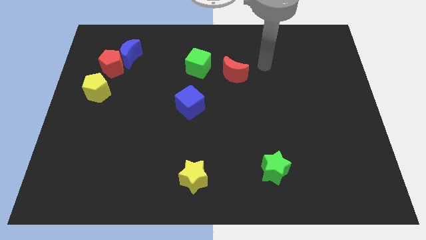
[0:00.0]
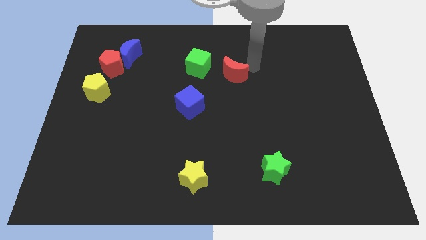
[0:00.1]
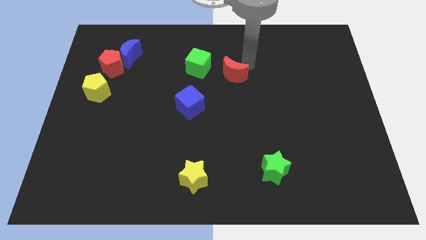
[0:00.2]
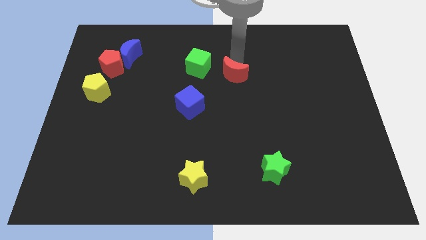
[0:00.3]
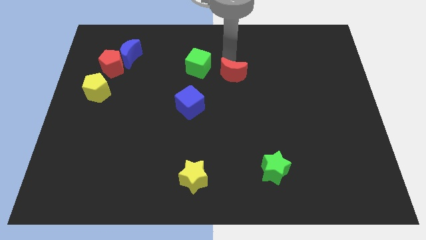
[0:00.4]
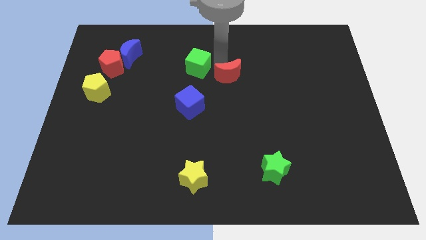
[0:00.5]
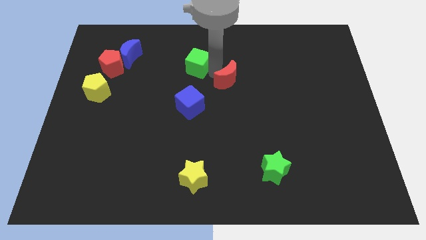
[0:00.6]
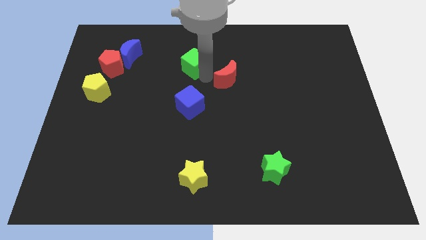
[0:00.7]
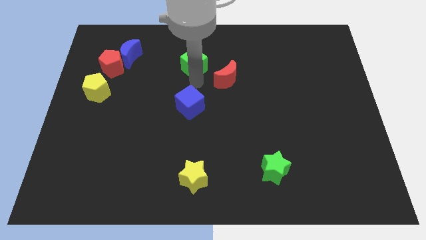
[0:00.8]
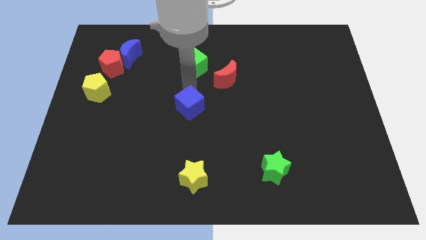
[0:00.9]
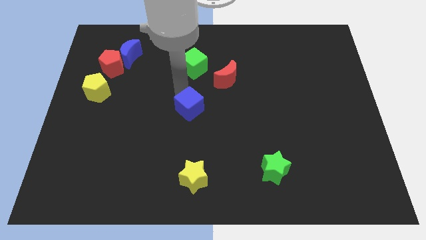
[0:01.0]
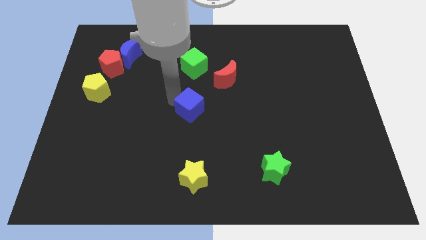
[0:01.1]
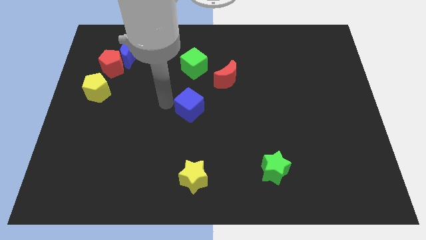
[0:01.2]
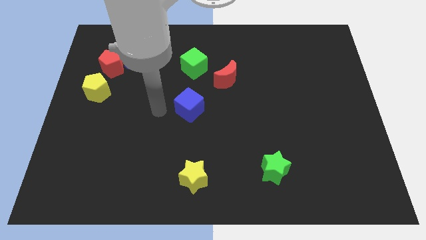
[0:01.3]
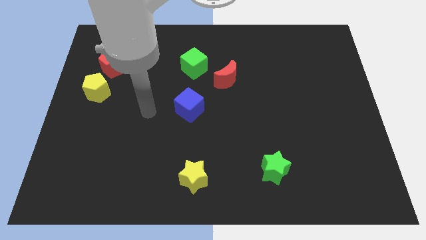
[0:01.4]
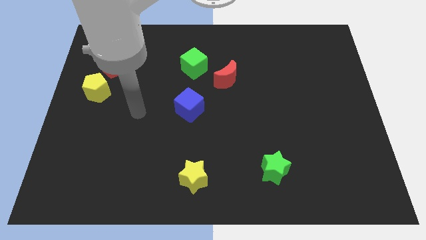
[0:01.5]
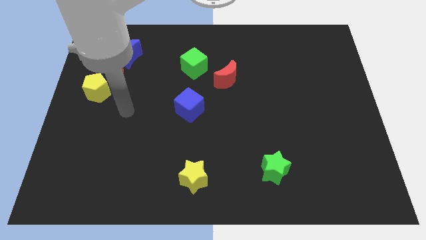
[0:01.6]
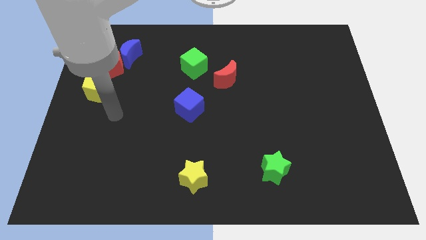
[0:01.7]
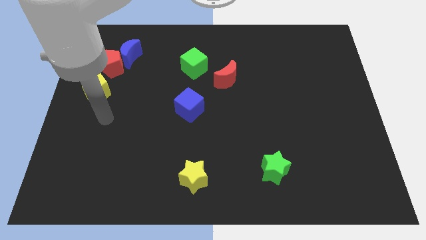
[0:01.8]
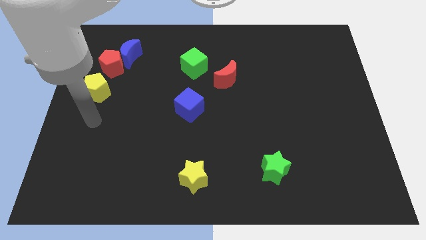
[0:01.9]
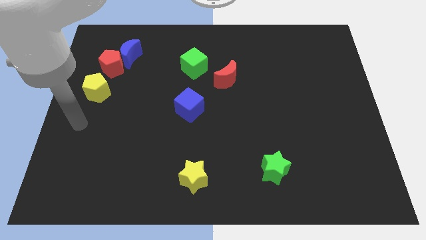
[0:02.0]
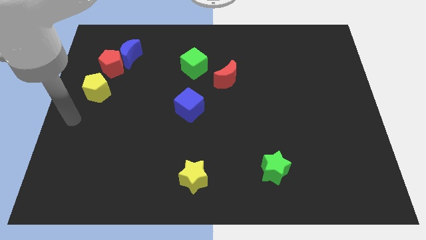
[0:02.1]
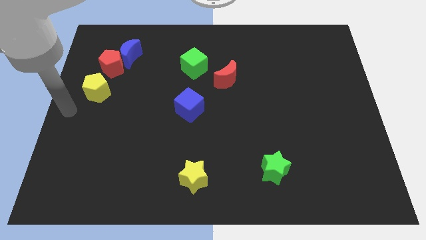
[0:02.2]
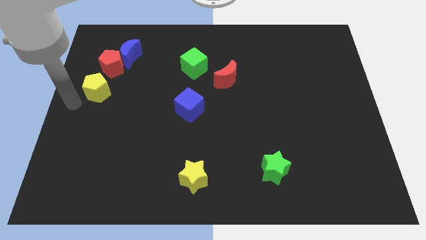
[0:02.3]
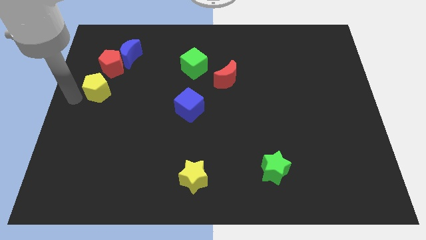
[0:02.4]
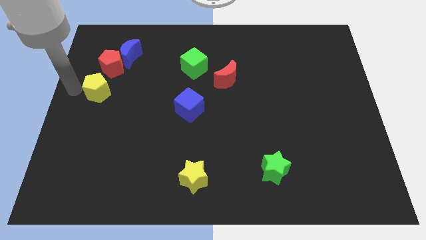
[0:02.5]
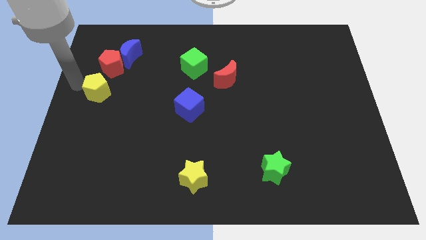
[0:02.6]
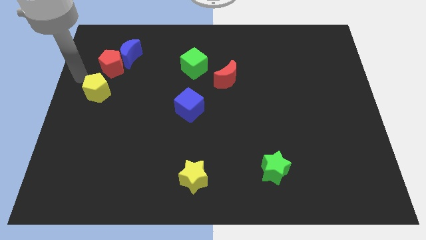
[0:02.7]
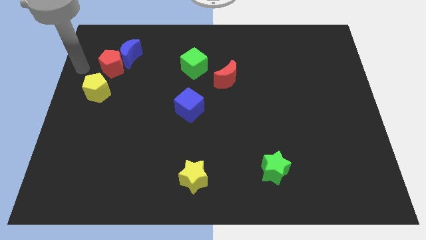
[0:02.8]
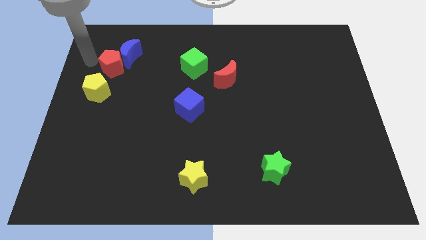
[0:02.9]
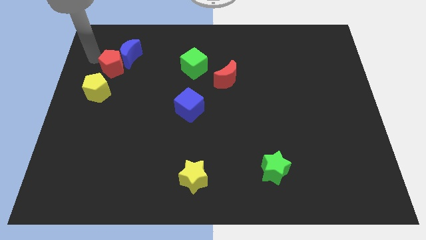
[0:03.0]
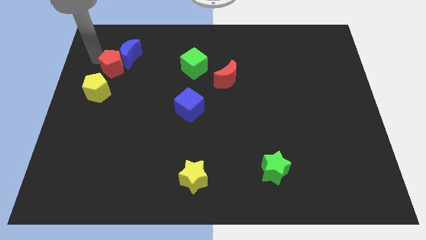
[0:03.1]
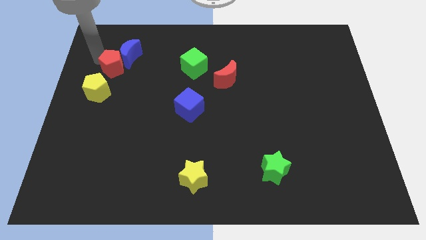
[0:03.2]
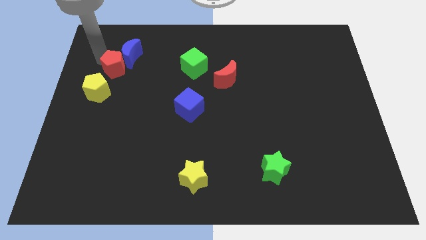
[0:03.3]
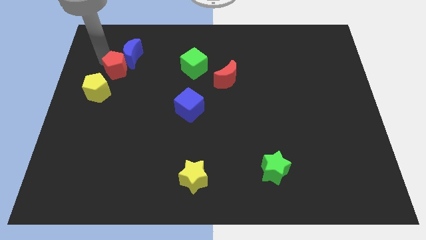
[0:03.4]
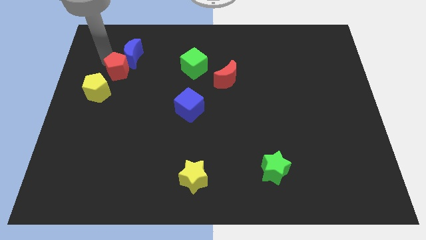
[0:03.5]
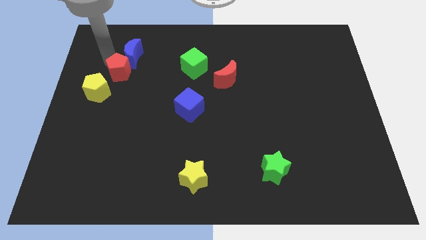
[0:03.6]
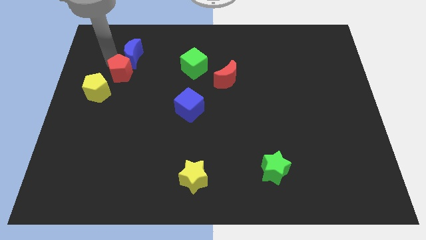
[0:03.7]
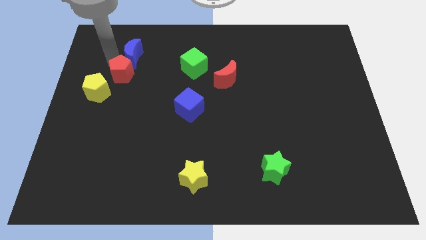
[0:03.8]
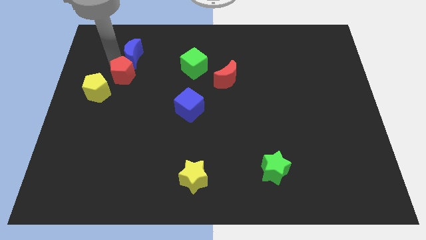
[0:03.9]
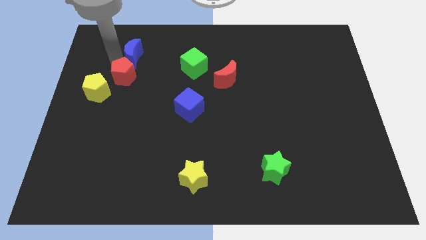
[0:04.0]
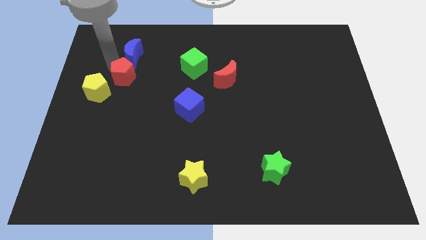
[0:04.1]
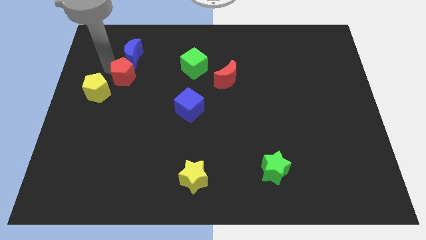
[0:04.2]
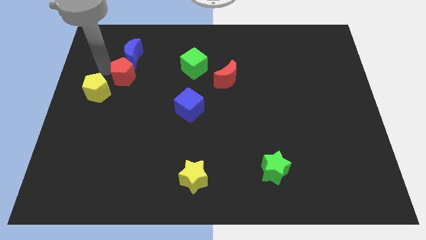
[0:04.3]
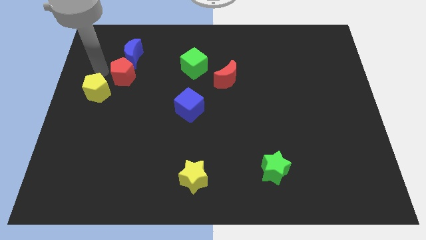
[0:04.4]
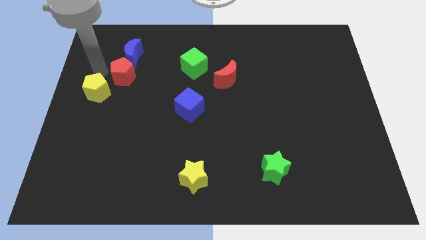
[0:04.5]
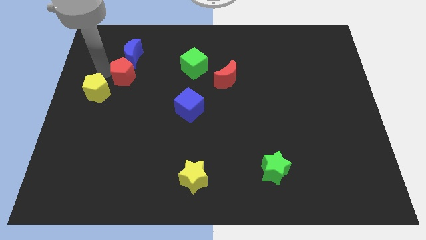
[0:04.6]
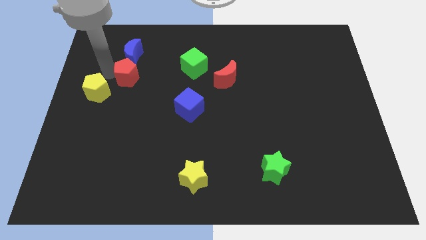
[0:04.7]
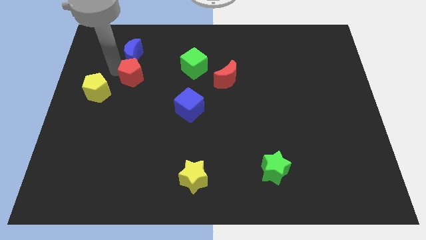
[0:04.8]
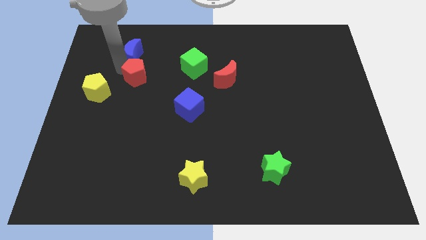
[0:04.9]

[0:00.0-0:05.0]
move the red pentagon a little bit downwards and then to the right

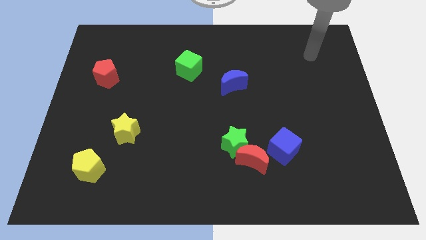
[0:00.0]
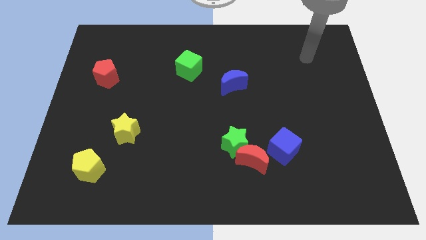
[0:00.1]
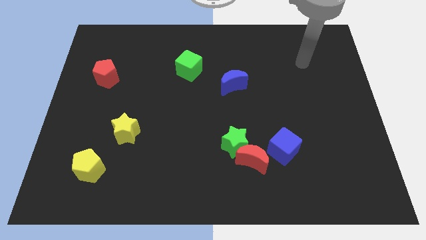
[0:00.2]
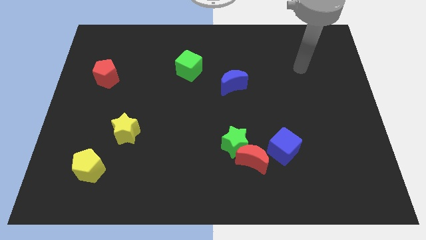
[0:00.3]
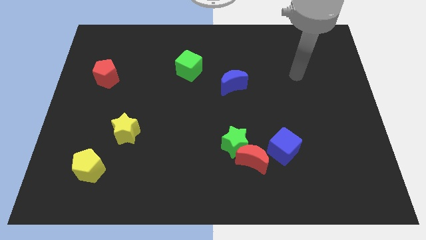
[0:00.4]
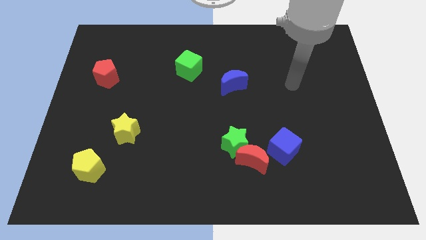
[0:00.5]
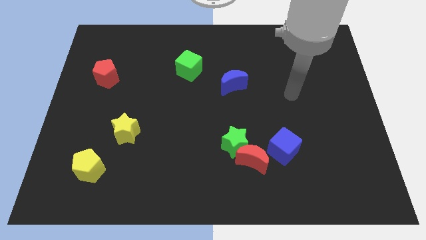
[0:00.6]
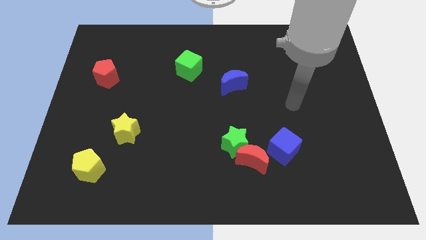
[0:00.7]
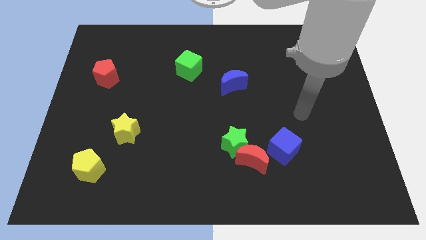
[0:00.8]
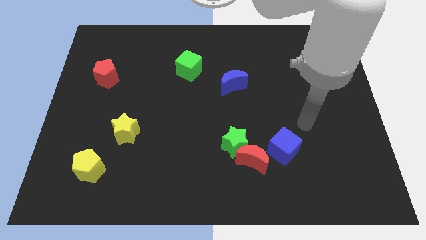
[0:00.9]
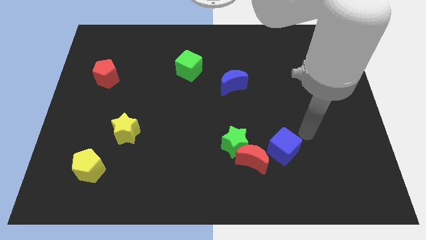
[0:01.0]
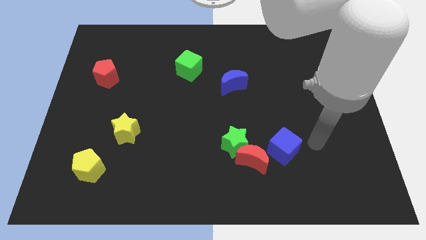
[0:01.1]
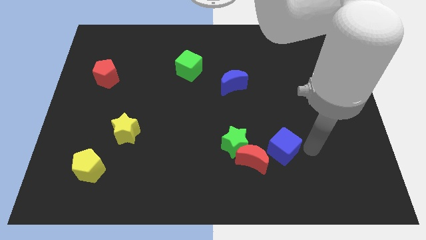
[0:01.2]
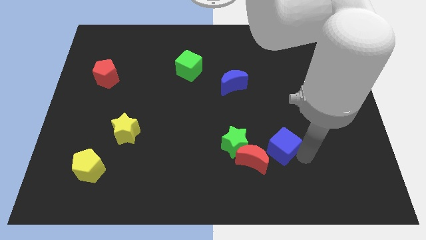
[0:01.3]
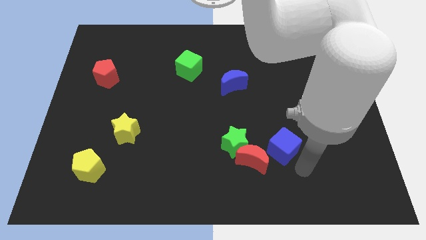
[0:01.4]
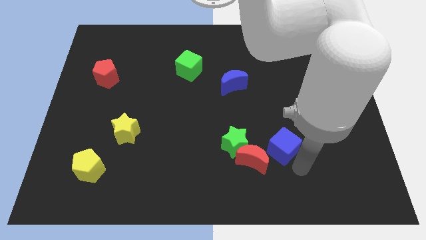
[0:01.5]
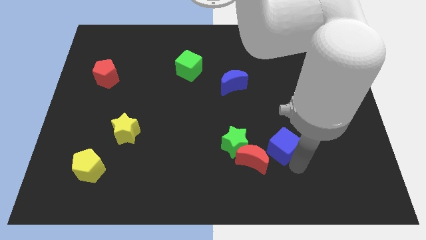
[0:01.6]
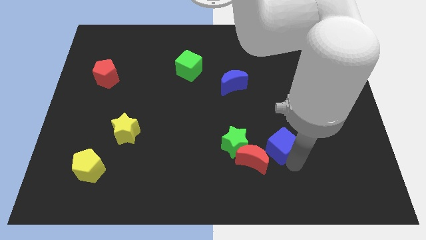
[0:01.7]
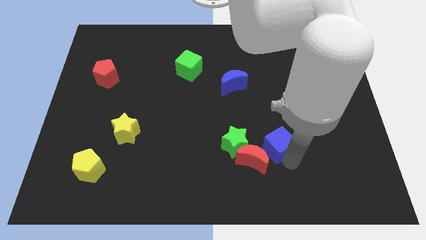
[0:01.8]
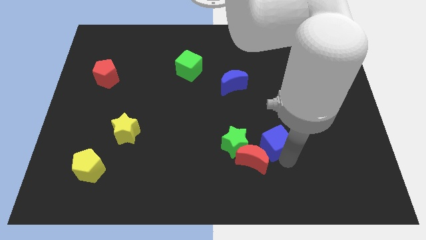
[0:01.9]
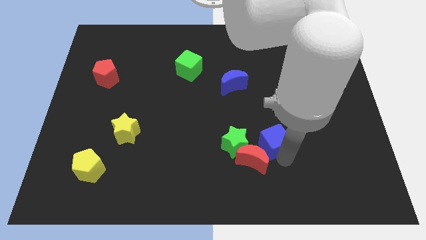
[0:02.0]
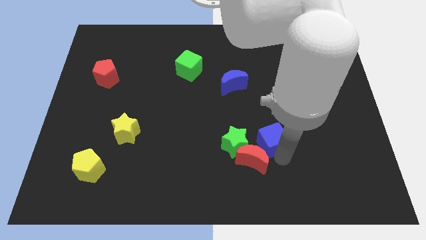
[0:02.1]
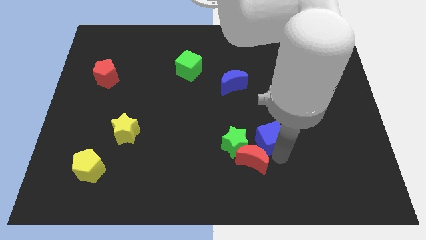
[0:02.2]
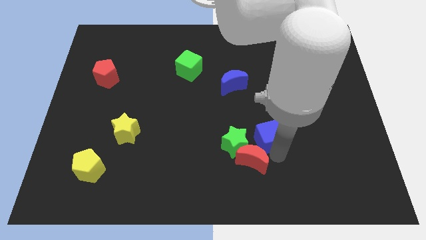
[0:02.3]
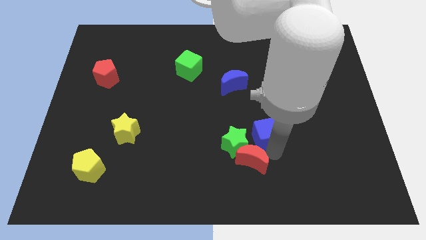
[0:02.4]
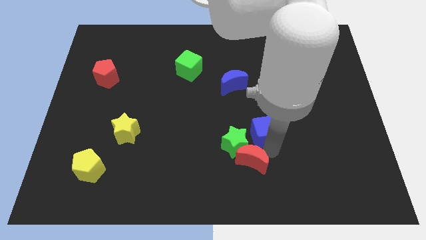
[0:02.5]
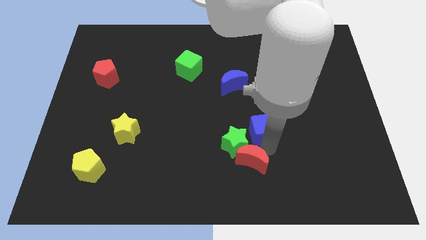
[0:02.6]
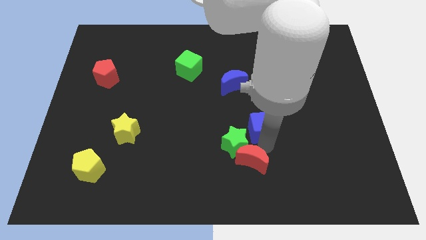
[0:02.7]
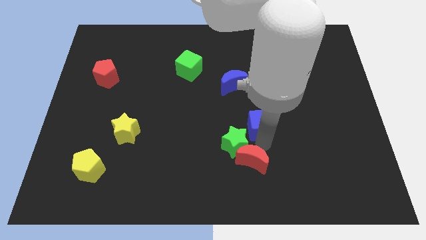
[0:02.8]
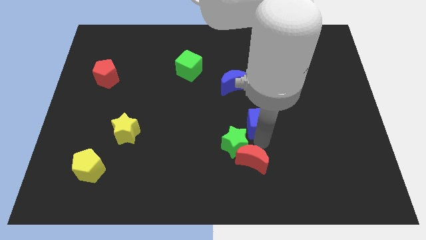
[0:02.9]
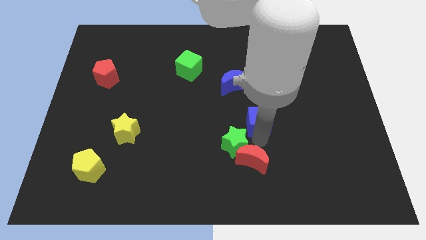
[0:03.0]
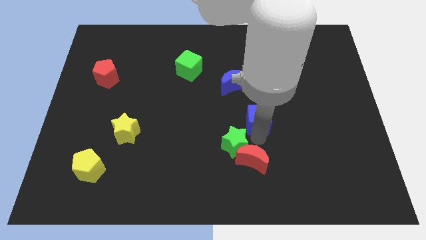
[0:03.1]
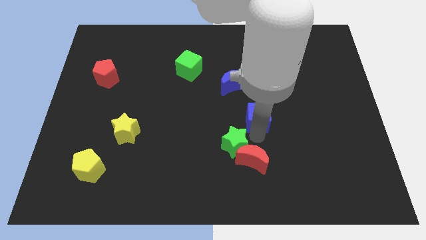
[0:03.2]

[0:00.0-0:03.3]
slide the blue cube somewhat up
